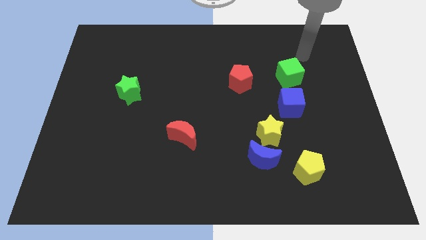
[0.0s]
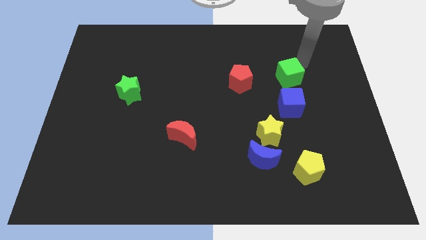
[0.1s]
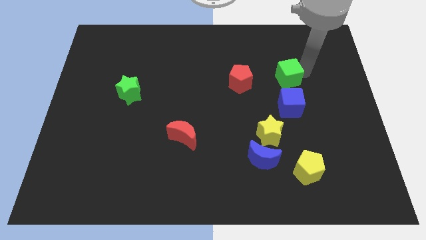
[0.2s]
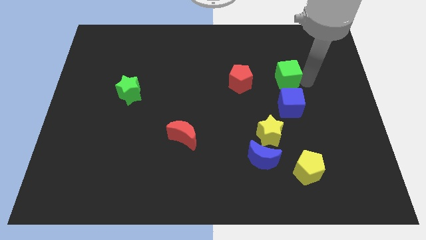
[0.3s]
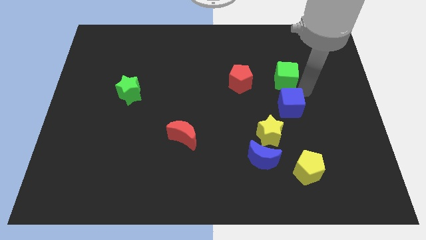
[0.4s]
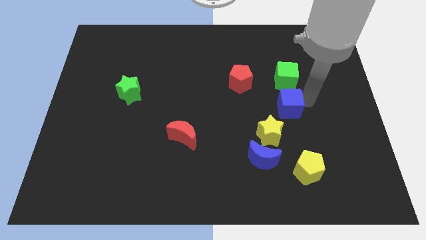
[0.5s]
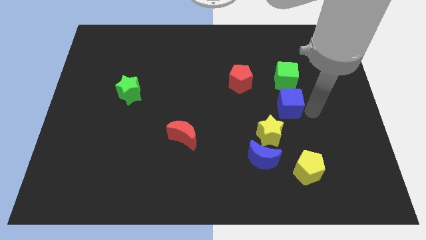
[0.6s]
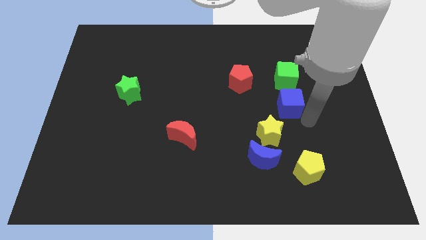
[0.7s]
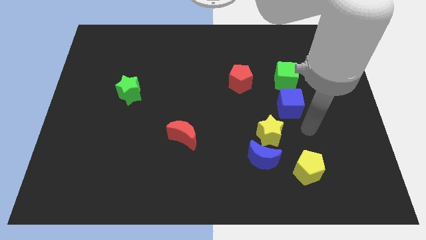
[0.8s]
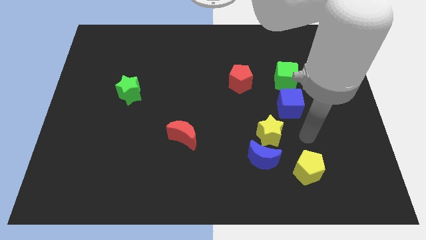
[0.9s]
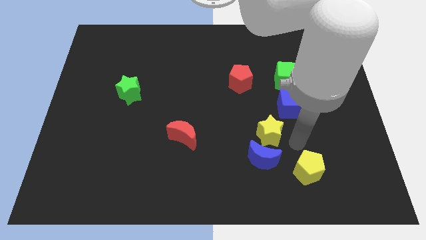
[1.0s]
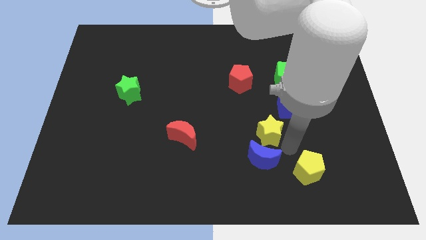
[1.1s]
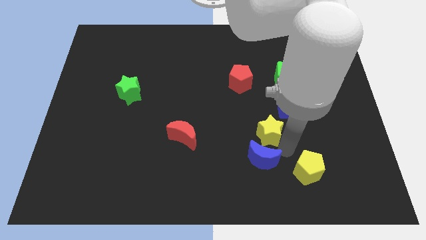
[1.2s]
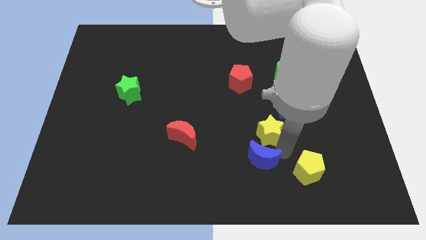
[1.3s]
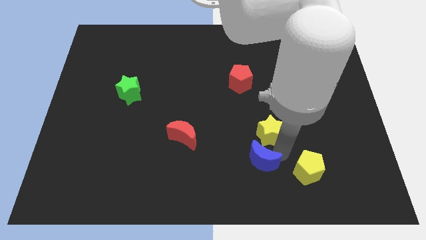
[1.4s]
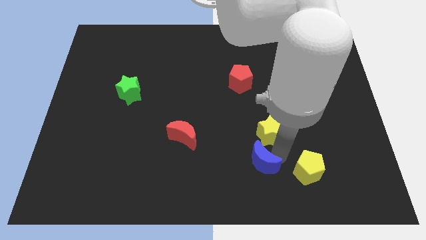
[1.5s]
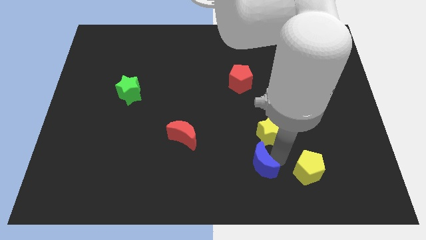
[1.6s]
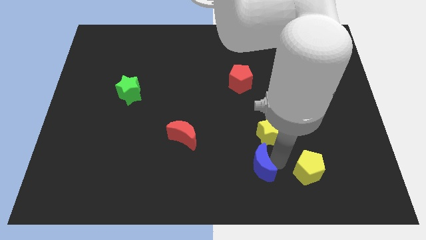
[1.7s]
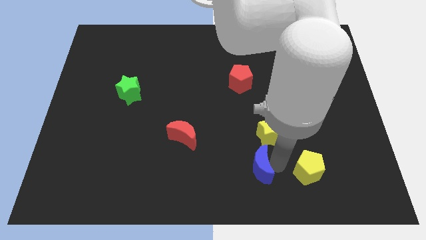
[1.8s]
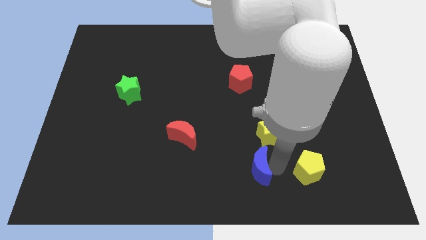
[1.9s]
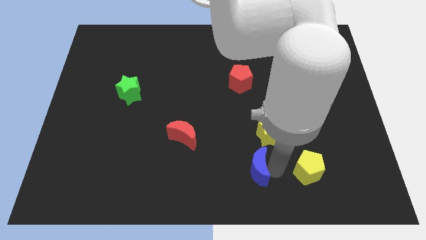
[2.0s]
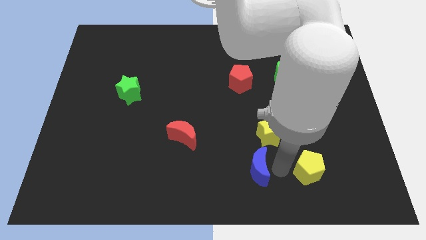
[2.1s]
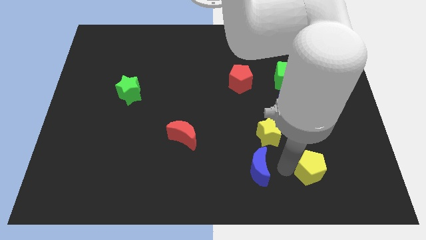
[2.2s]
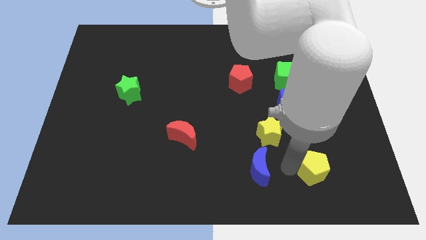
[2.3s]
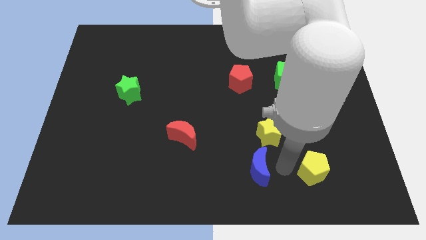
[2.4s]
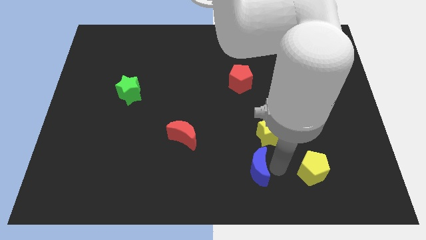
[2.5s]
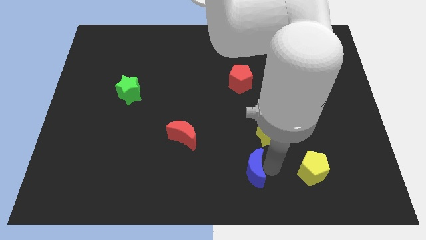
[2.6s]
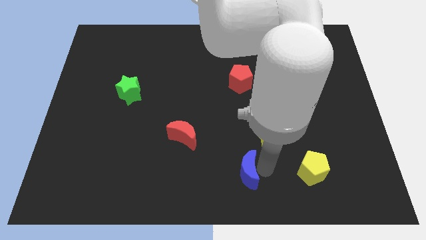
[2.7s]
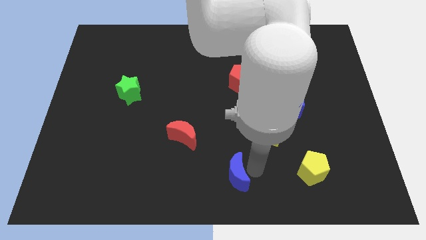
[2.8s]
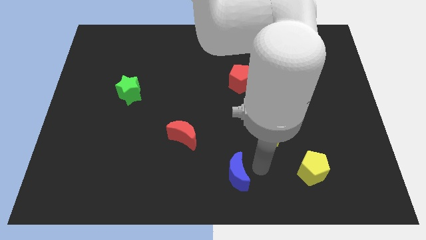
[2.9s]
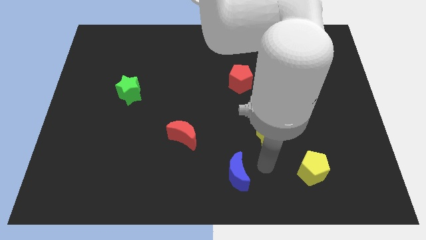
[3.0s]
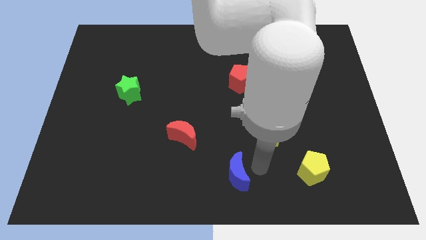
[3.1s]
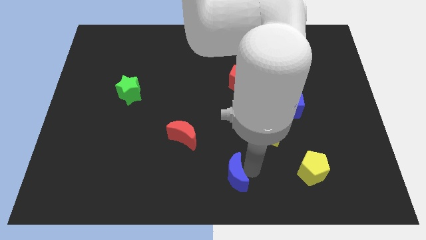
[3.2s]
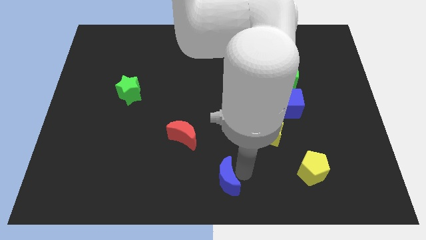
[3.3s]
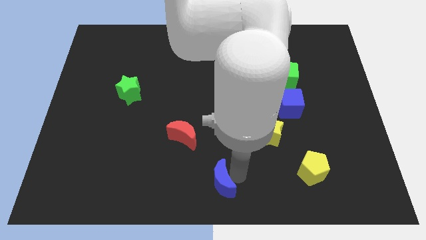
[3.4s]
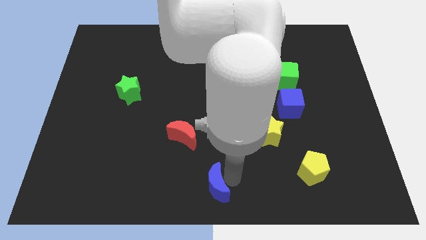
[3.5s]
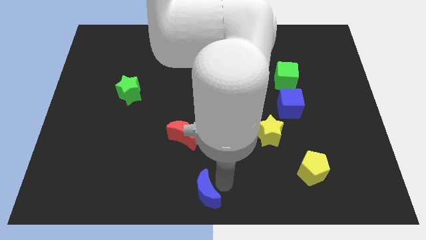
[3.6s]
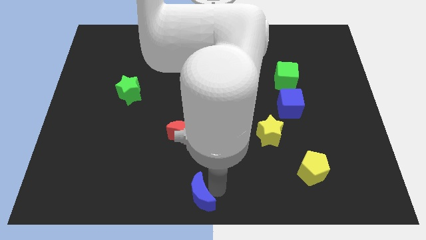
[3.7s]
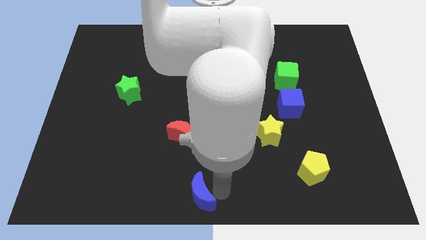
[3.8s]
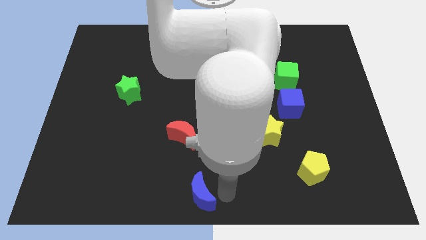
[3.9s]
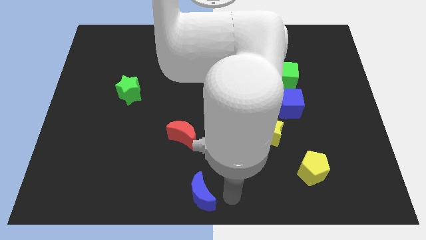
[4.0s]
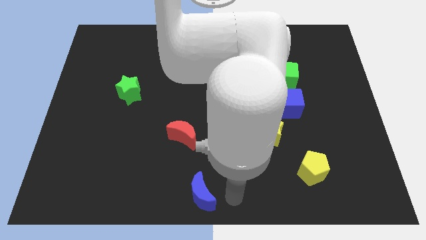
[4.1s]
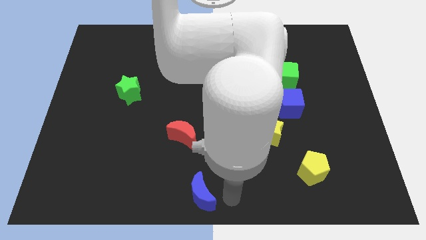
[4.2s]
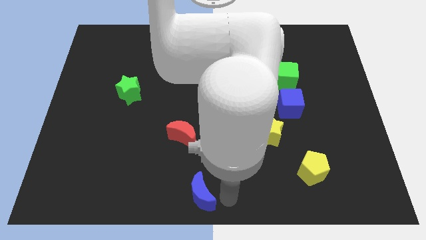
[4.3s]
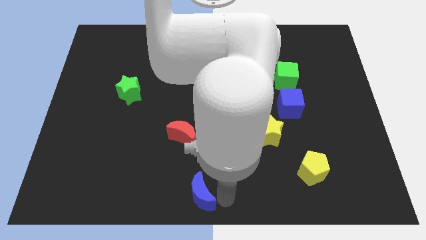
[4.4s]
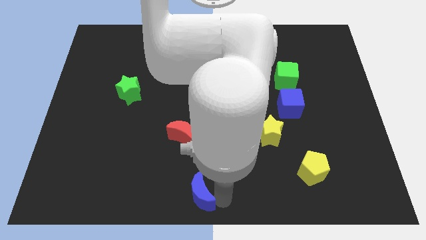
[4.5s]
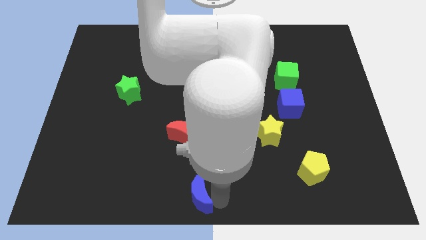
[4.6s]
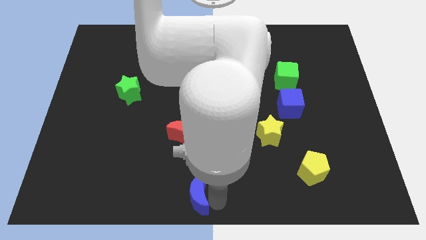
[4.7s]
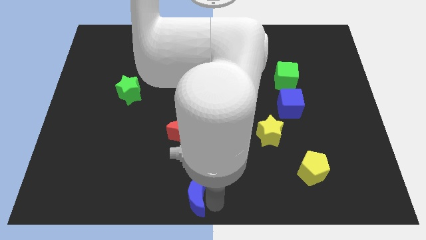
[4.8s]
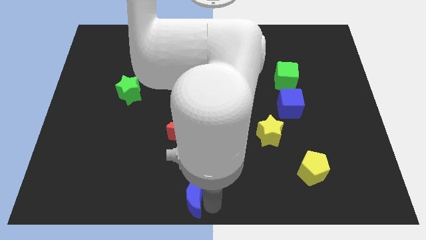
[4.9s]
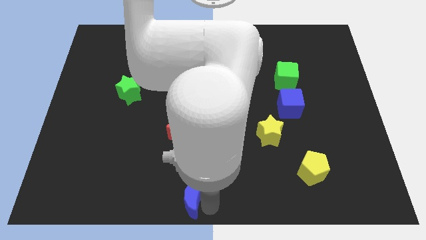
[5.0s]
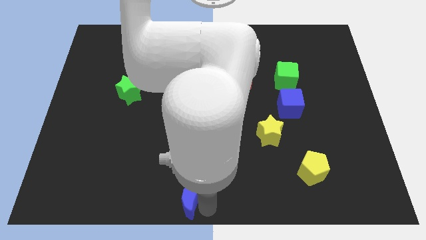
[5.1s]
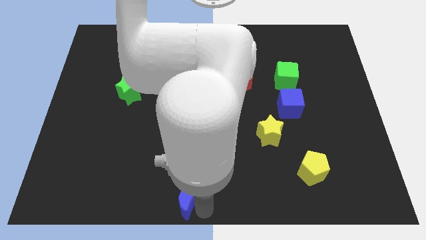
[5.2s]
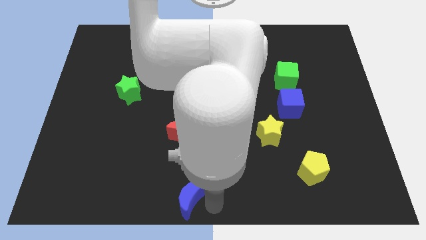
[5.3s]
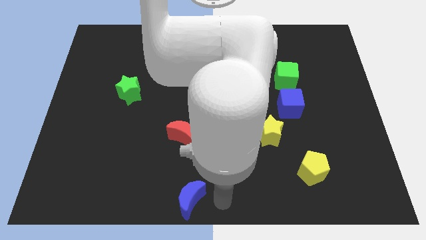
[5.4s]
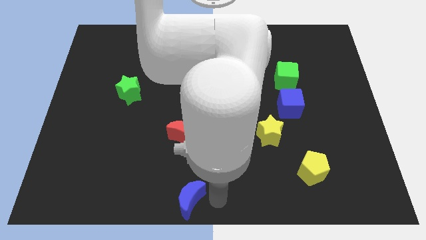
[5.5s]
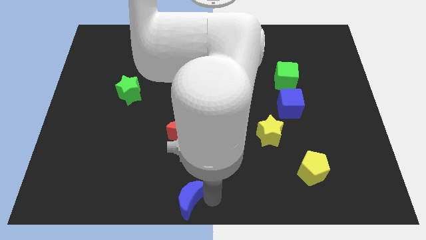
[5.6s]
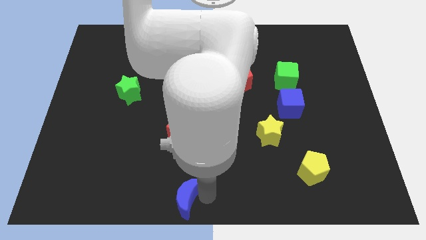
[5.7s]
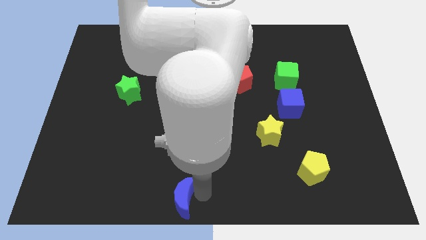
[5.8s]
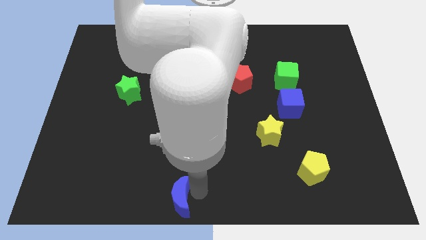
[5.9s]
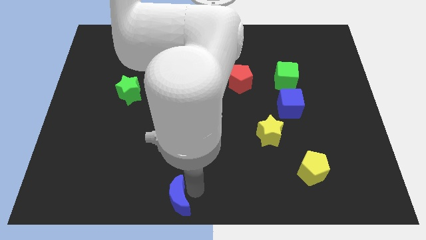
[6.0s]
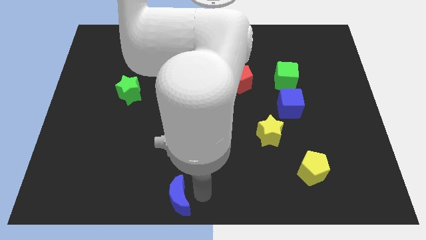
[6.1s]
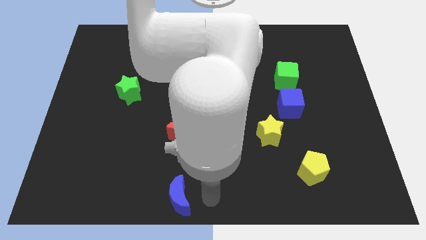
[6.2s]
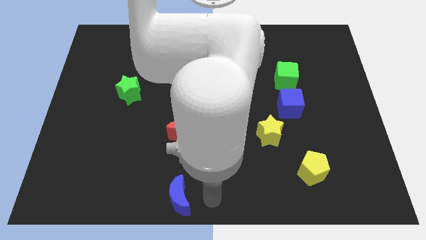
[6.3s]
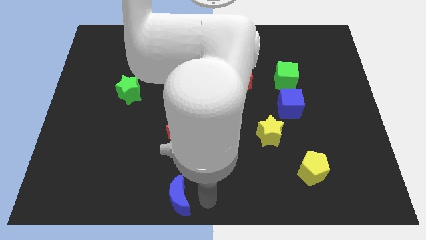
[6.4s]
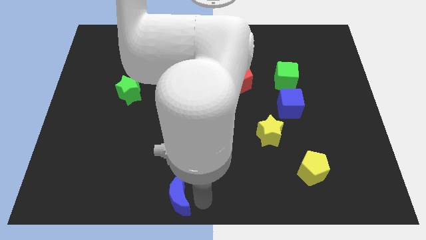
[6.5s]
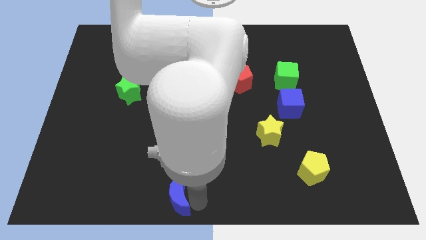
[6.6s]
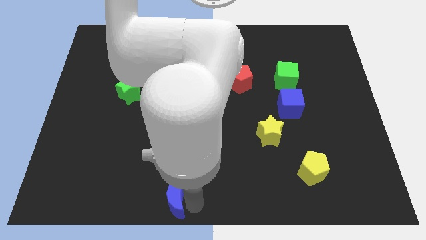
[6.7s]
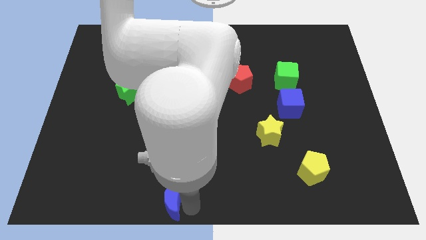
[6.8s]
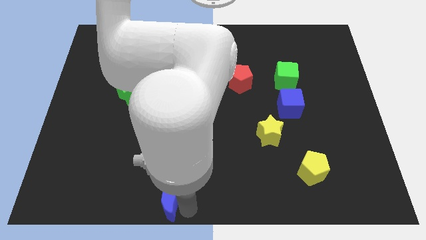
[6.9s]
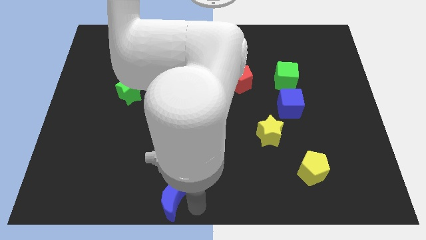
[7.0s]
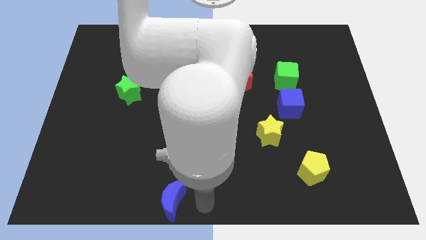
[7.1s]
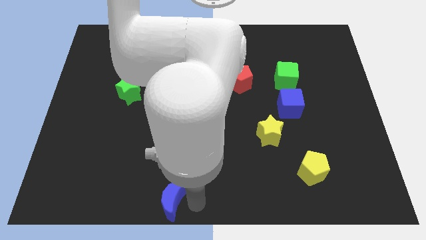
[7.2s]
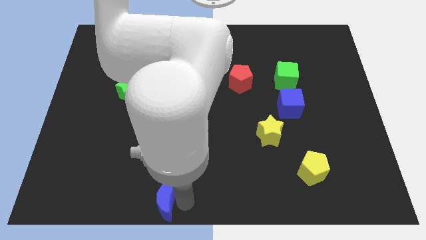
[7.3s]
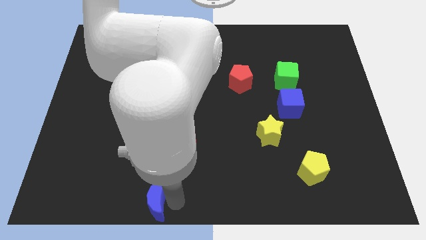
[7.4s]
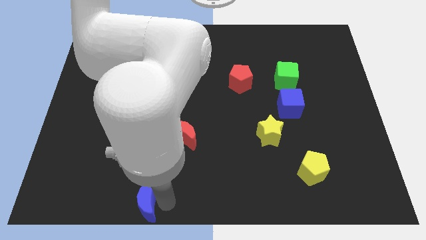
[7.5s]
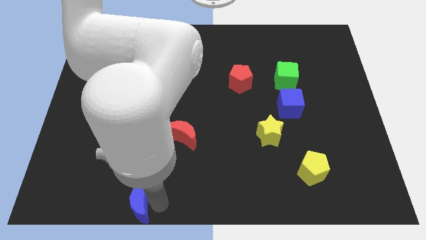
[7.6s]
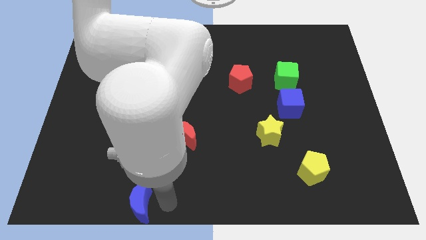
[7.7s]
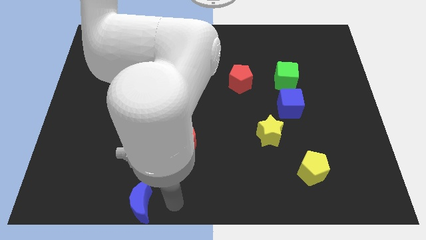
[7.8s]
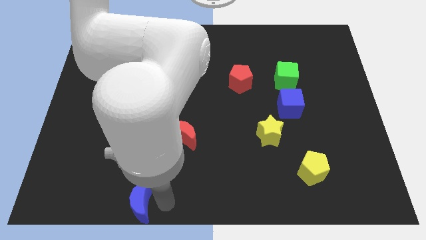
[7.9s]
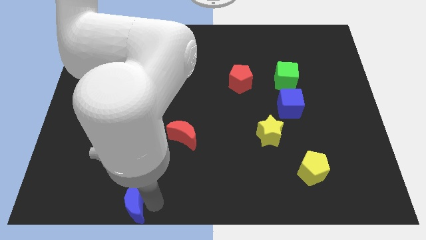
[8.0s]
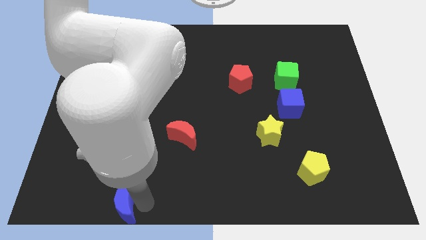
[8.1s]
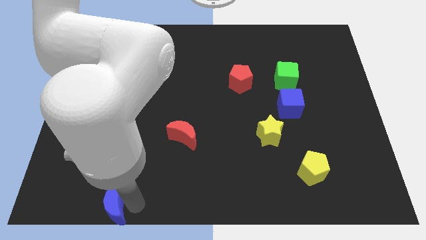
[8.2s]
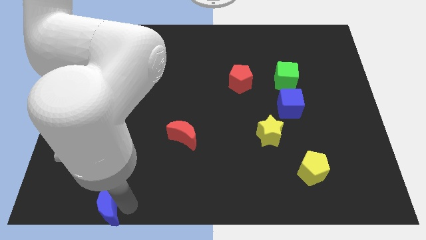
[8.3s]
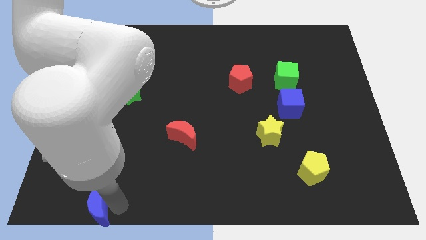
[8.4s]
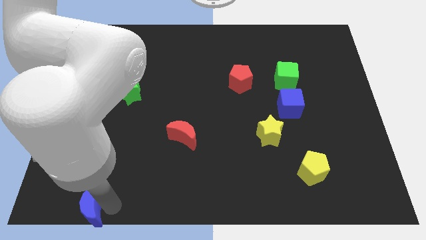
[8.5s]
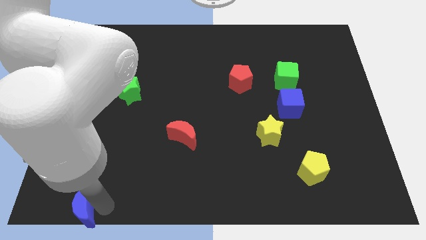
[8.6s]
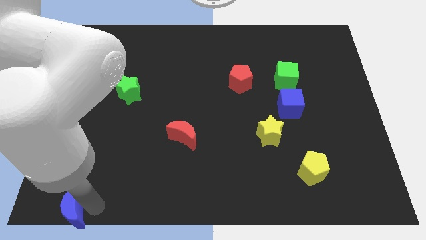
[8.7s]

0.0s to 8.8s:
put the blue moon to the bottom left
